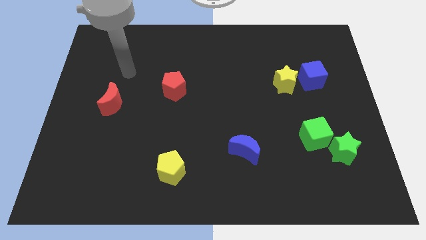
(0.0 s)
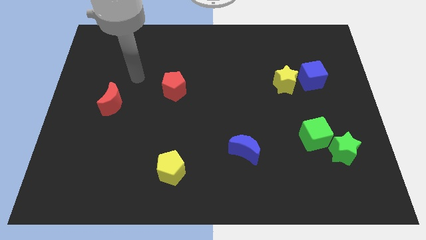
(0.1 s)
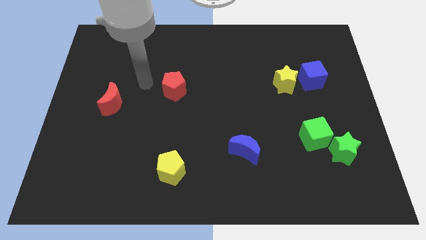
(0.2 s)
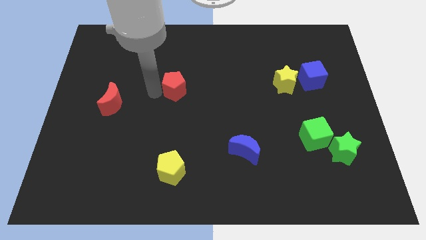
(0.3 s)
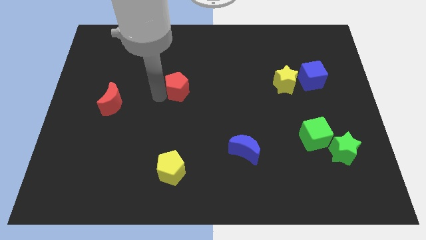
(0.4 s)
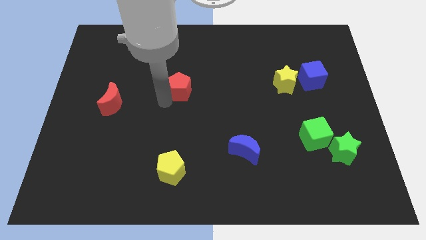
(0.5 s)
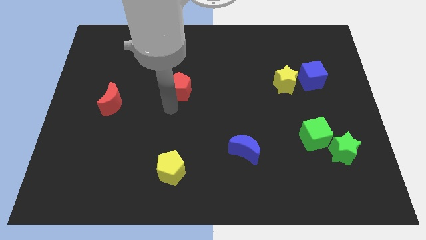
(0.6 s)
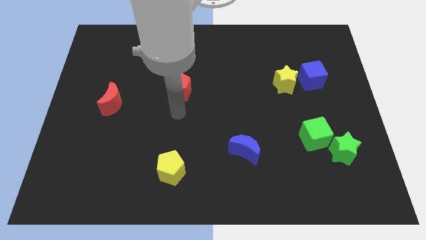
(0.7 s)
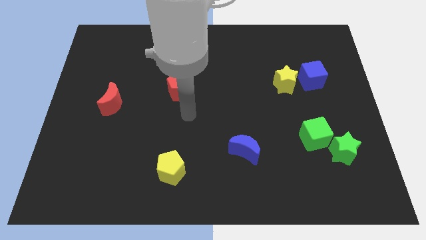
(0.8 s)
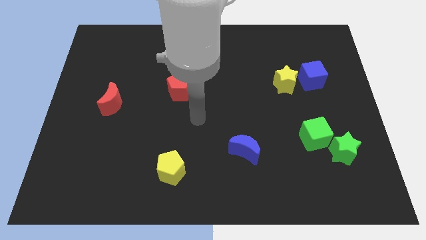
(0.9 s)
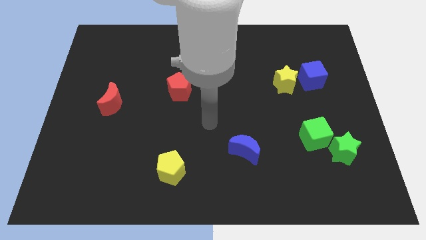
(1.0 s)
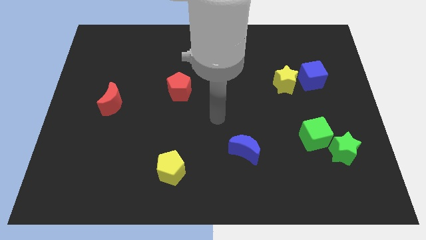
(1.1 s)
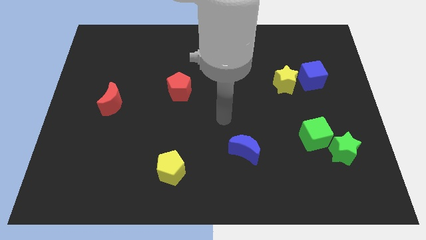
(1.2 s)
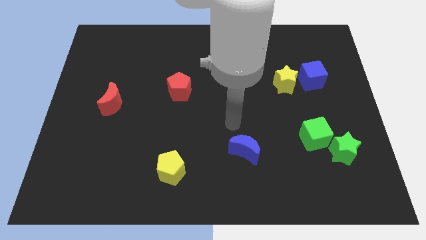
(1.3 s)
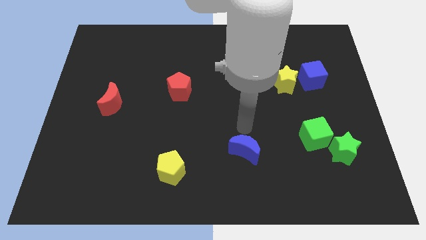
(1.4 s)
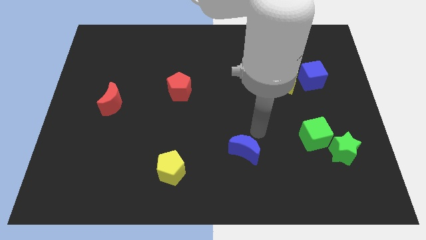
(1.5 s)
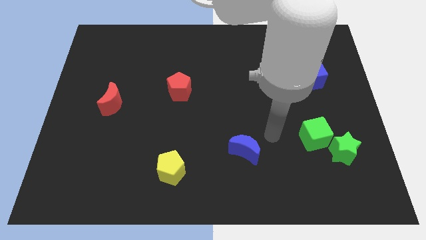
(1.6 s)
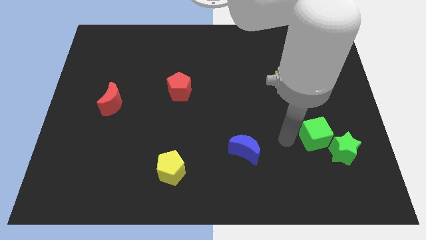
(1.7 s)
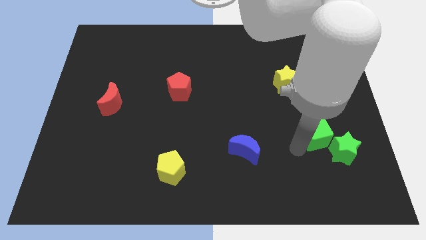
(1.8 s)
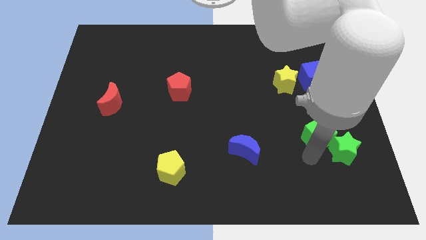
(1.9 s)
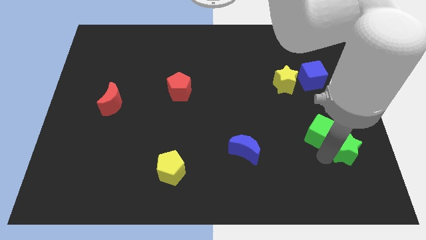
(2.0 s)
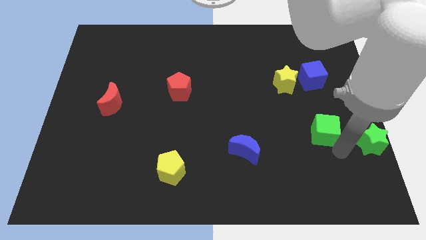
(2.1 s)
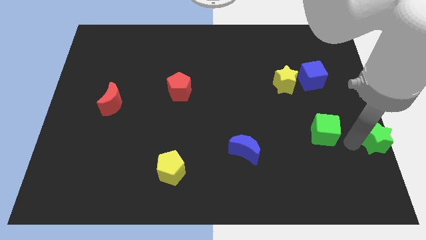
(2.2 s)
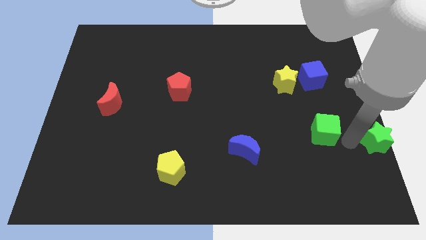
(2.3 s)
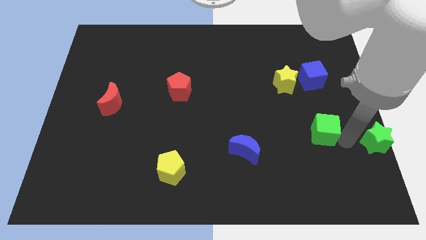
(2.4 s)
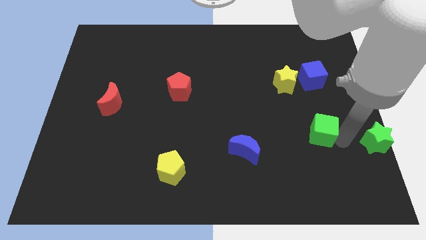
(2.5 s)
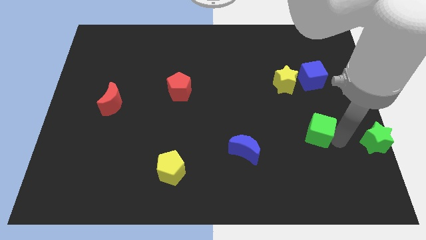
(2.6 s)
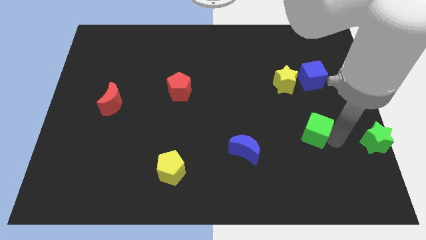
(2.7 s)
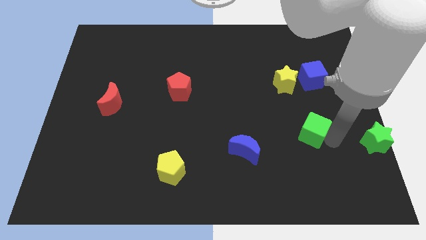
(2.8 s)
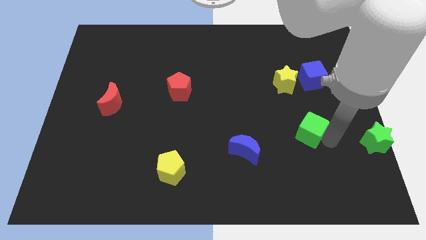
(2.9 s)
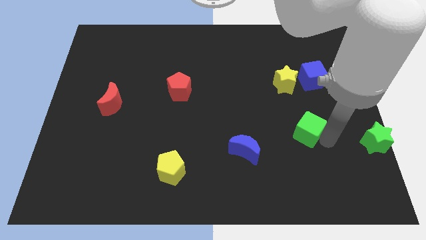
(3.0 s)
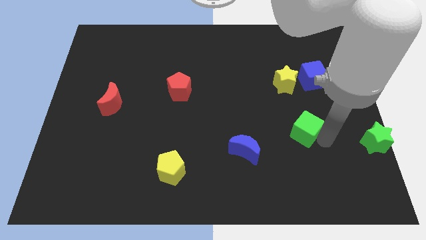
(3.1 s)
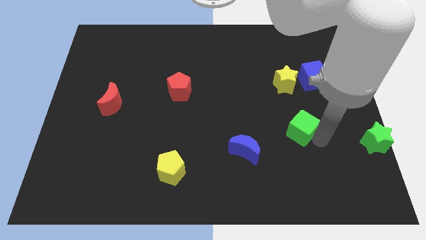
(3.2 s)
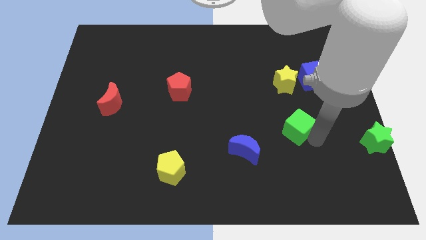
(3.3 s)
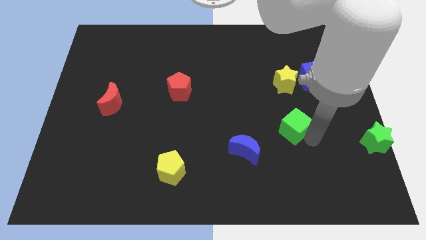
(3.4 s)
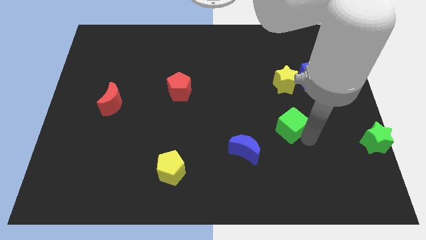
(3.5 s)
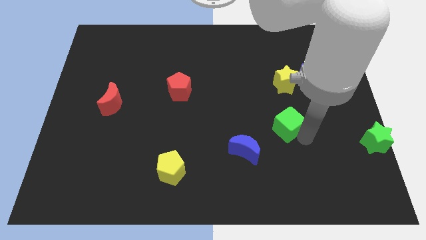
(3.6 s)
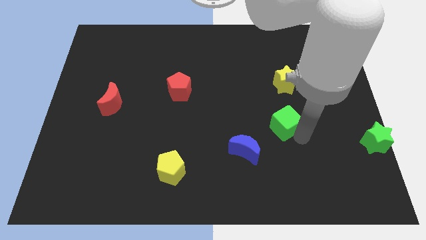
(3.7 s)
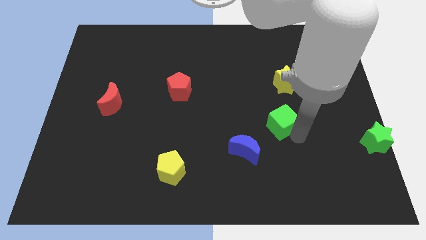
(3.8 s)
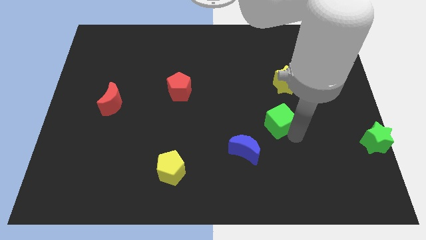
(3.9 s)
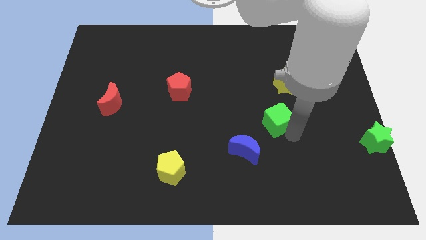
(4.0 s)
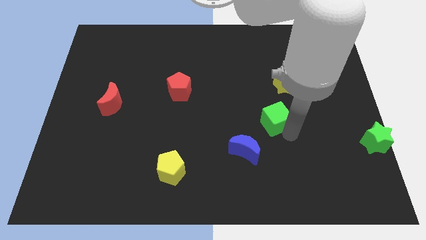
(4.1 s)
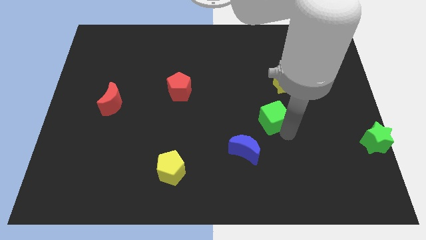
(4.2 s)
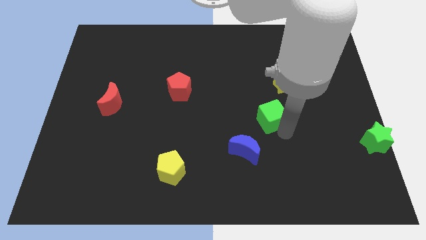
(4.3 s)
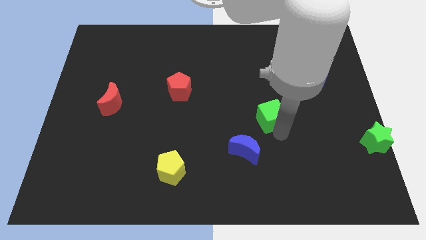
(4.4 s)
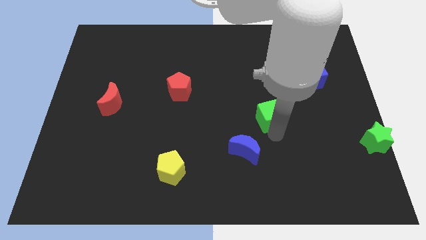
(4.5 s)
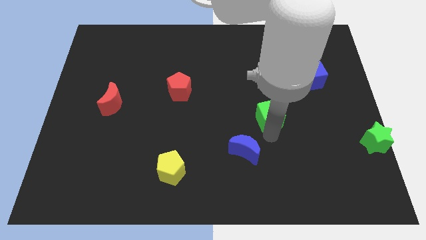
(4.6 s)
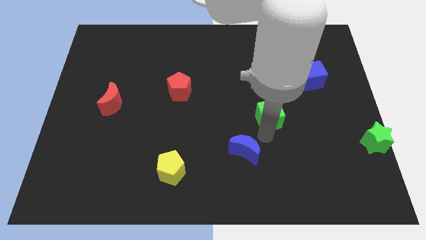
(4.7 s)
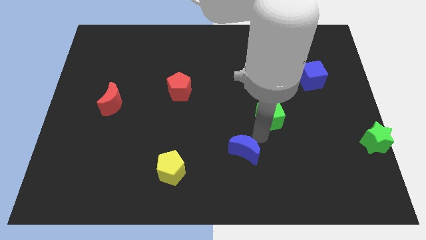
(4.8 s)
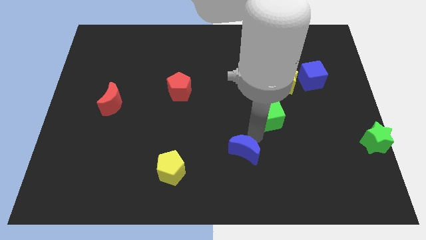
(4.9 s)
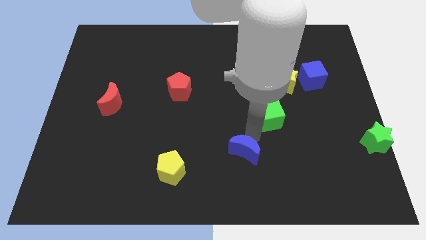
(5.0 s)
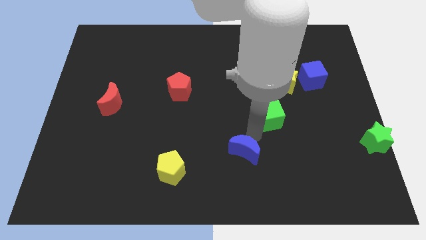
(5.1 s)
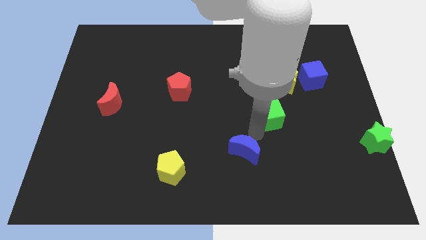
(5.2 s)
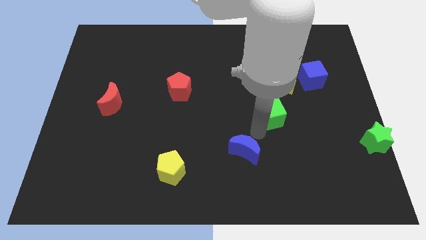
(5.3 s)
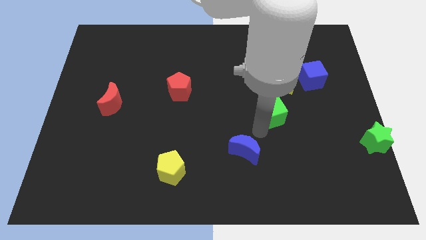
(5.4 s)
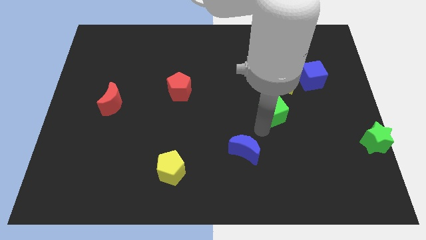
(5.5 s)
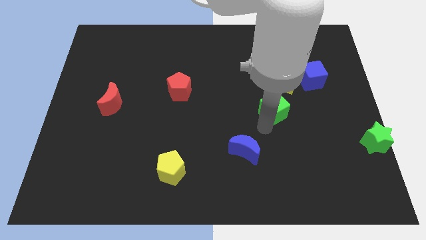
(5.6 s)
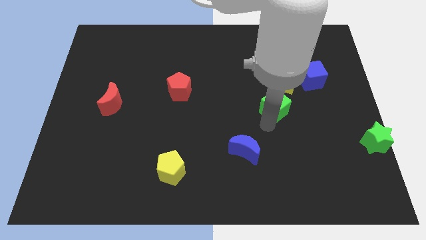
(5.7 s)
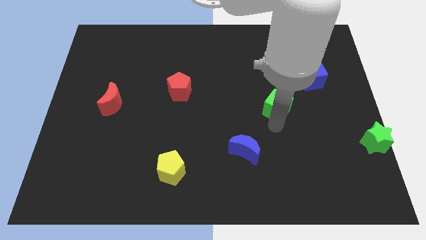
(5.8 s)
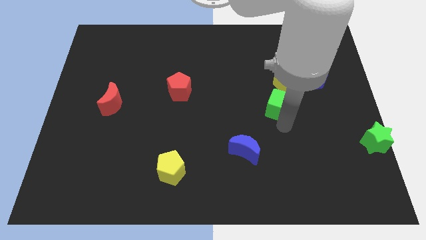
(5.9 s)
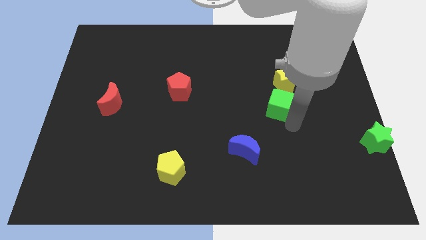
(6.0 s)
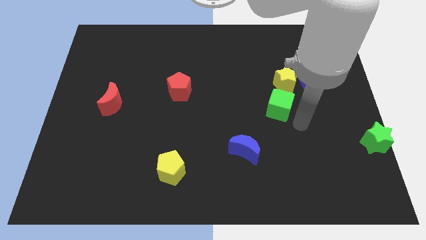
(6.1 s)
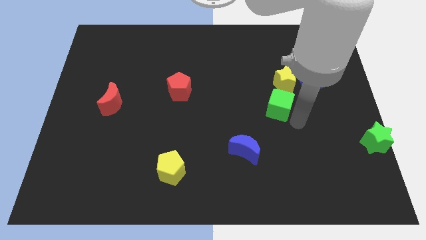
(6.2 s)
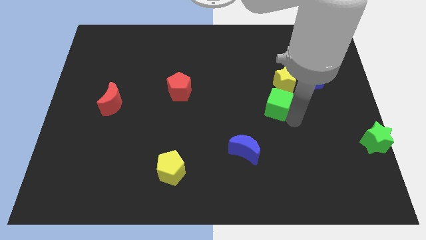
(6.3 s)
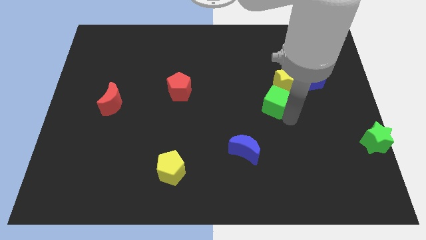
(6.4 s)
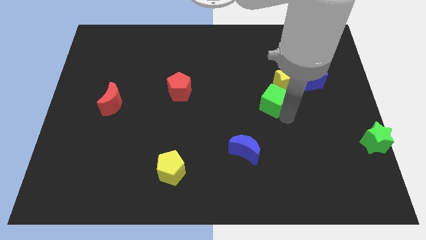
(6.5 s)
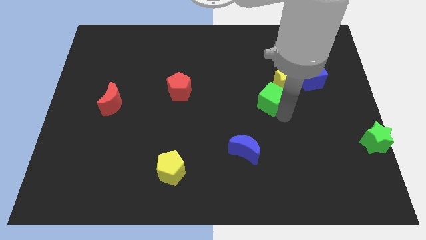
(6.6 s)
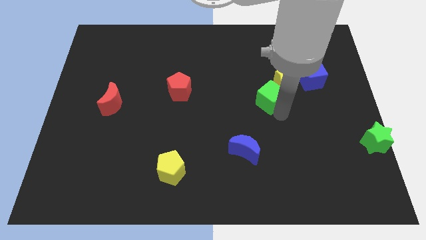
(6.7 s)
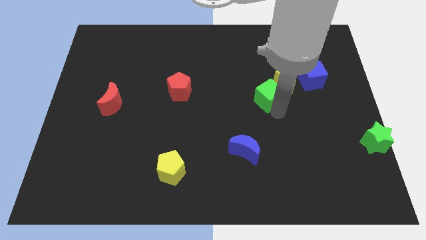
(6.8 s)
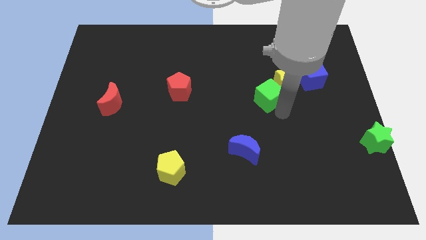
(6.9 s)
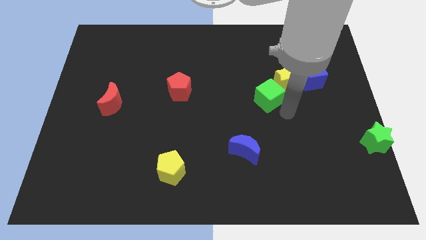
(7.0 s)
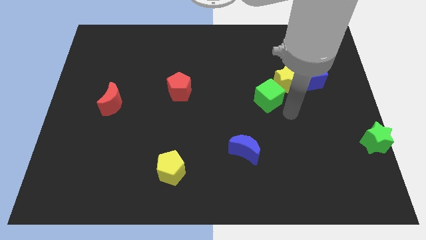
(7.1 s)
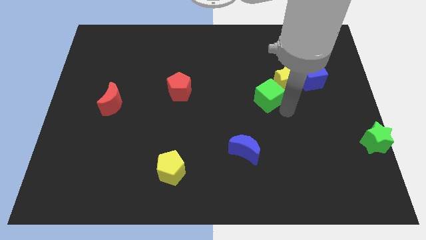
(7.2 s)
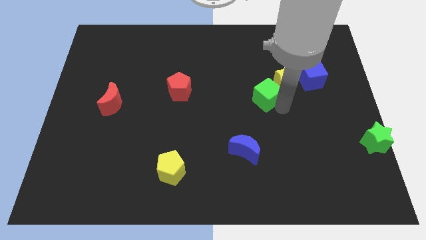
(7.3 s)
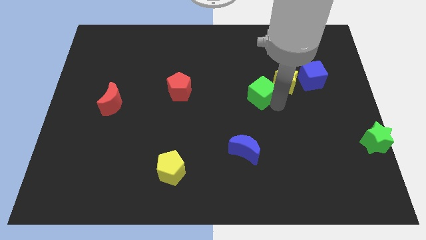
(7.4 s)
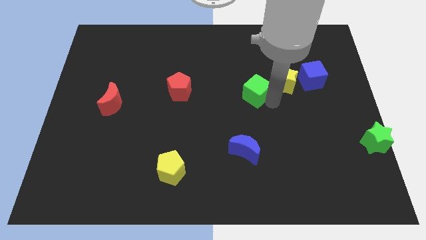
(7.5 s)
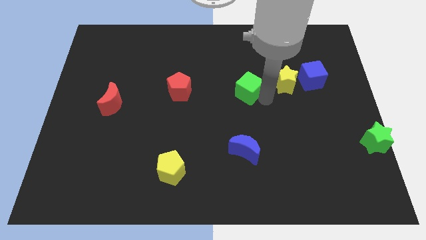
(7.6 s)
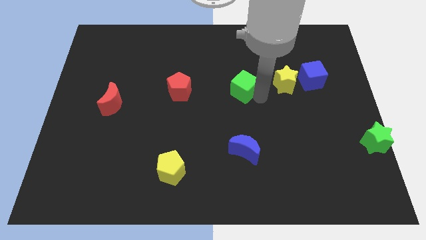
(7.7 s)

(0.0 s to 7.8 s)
push the green cube up and to the left

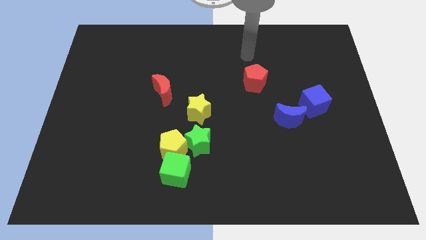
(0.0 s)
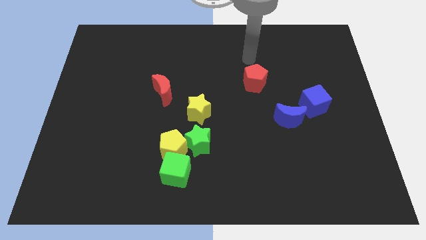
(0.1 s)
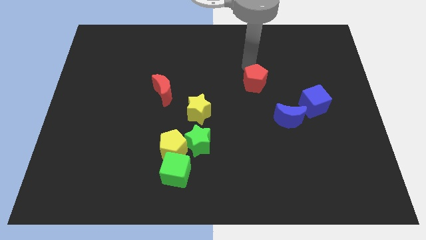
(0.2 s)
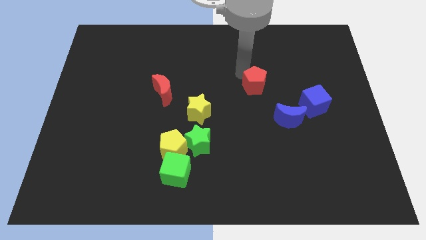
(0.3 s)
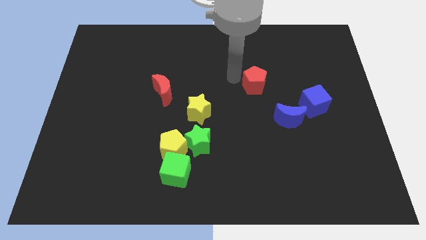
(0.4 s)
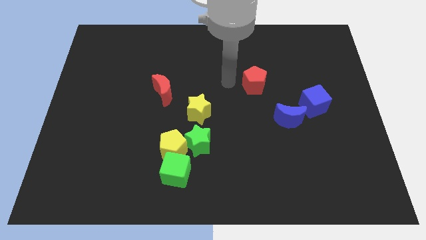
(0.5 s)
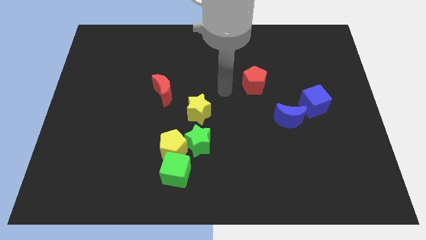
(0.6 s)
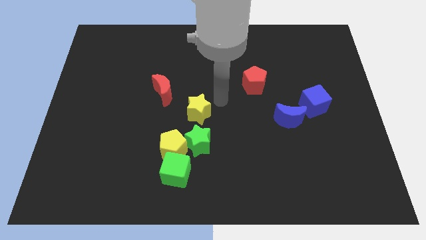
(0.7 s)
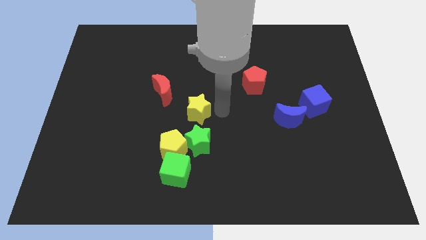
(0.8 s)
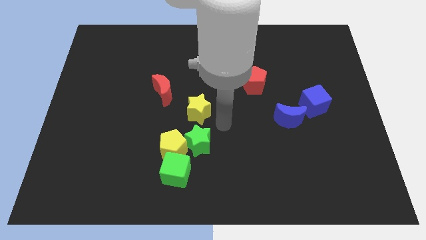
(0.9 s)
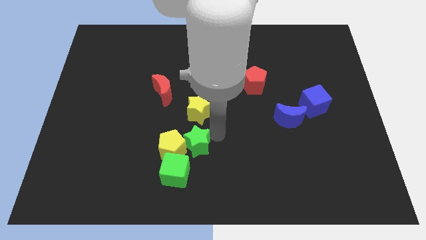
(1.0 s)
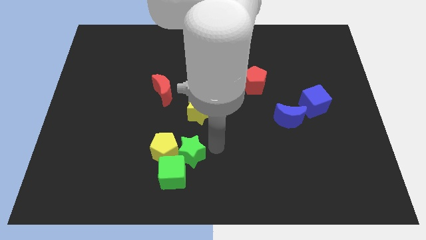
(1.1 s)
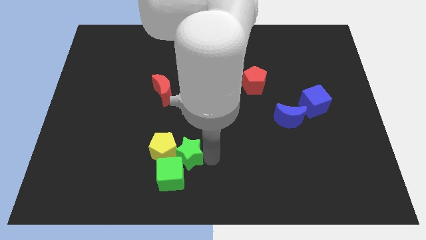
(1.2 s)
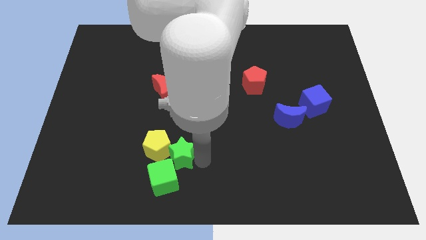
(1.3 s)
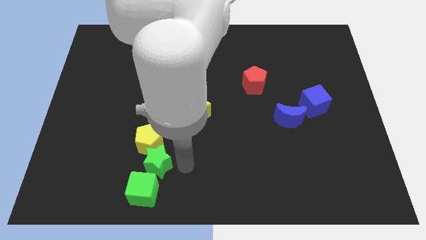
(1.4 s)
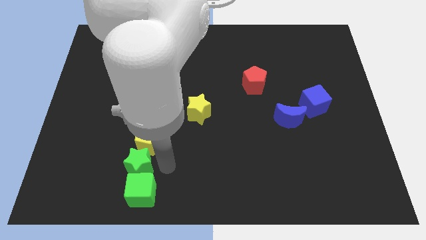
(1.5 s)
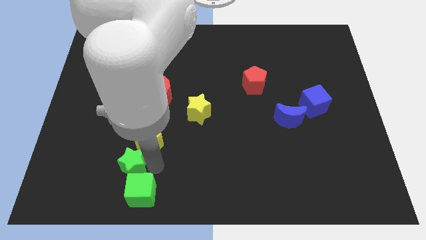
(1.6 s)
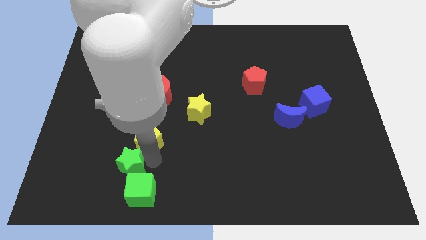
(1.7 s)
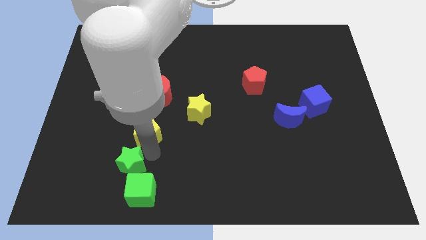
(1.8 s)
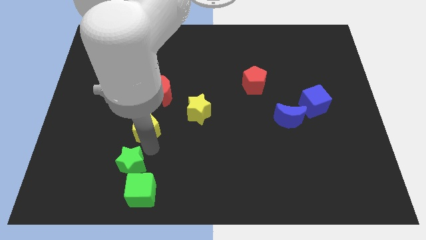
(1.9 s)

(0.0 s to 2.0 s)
push the yellow pentagon a bit diagonally upwards and left
